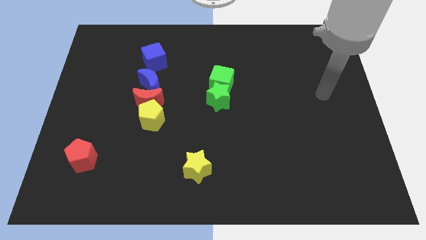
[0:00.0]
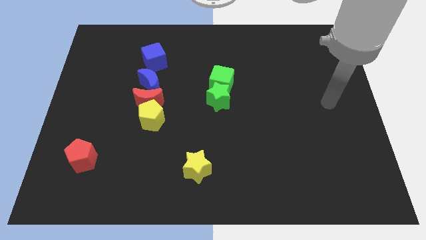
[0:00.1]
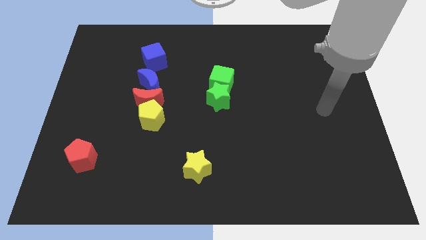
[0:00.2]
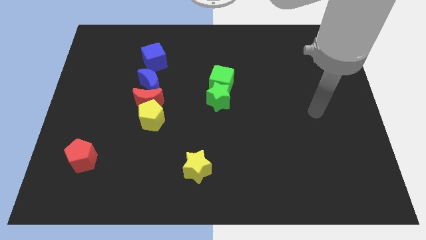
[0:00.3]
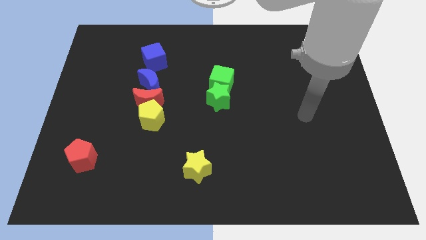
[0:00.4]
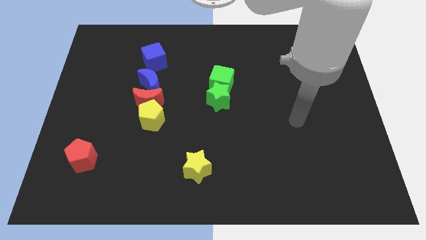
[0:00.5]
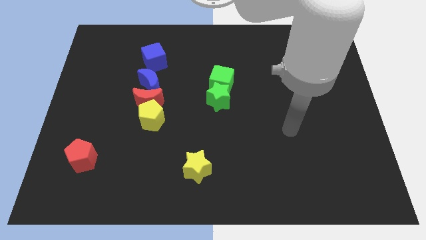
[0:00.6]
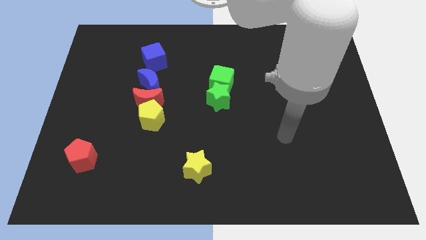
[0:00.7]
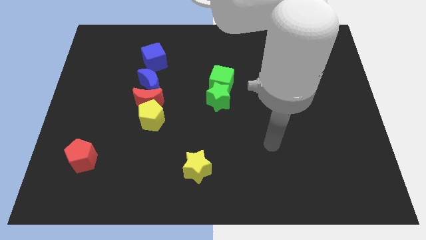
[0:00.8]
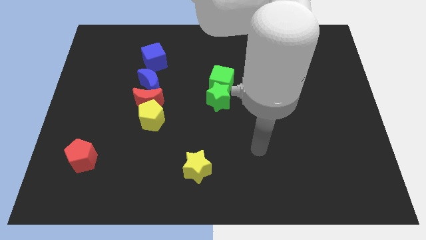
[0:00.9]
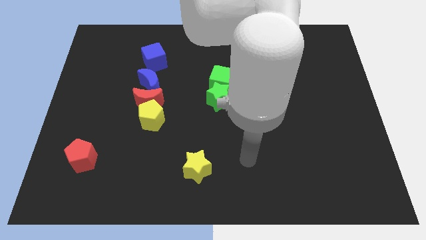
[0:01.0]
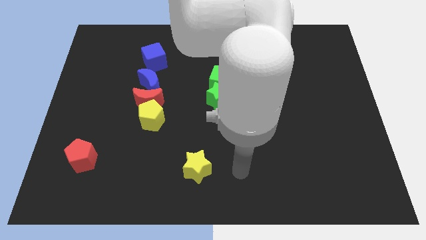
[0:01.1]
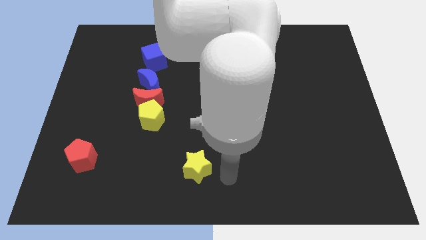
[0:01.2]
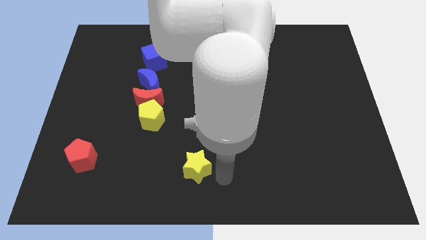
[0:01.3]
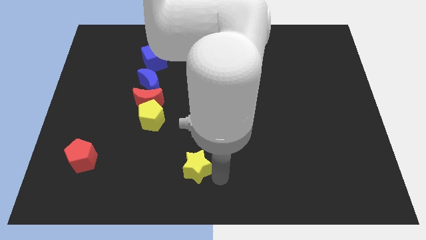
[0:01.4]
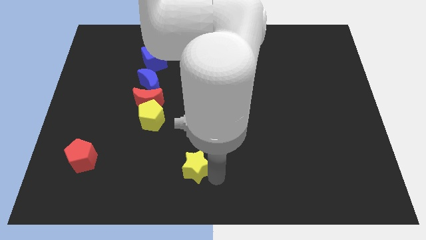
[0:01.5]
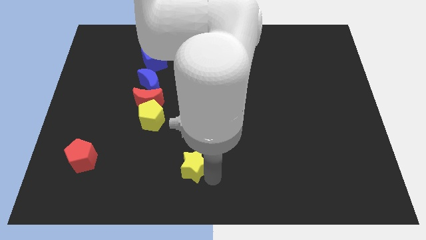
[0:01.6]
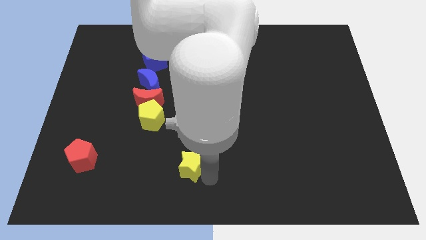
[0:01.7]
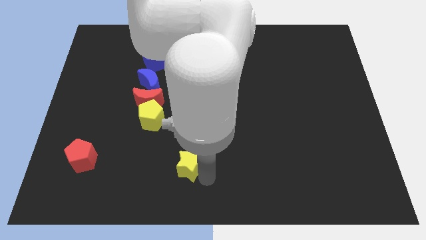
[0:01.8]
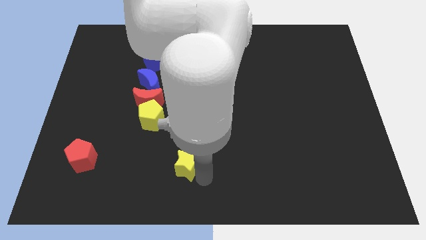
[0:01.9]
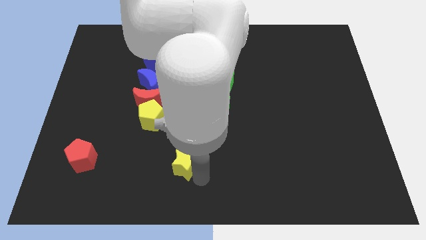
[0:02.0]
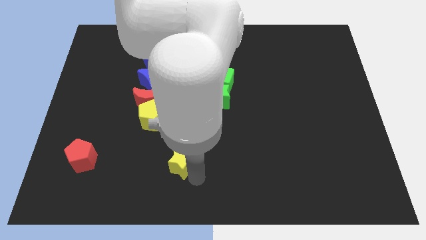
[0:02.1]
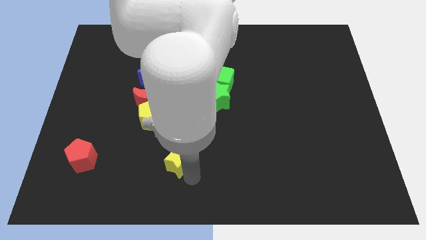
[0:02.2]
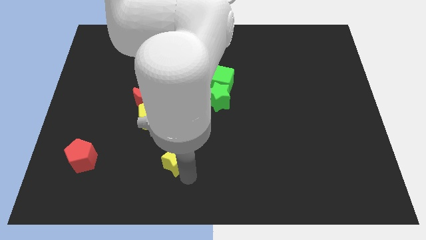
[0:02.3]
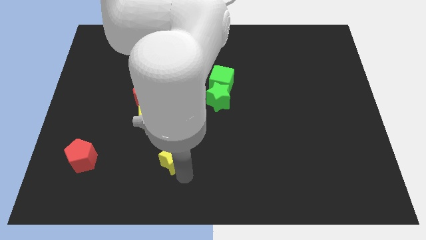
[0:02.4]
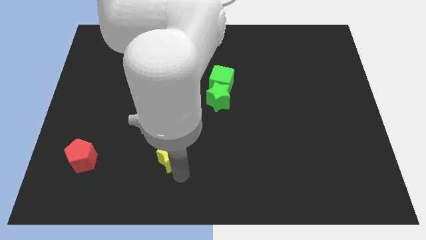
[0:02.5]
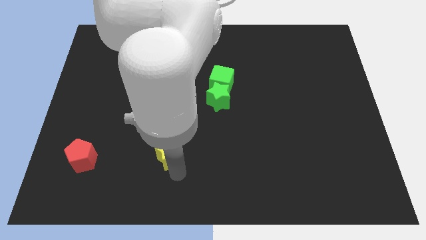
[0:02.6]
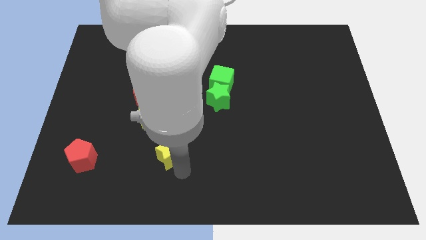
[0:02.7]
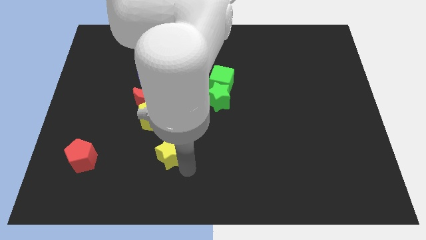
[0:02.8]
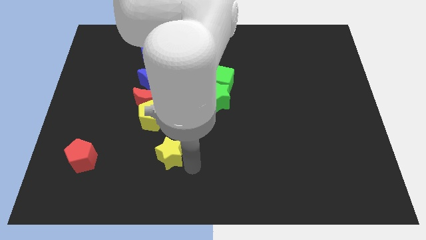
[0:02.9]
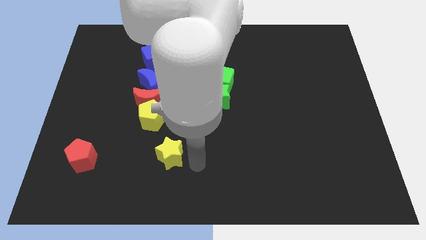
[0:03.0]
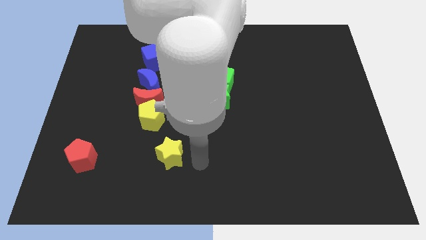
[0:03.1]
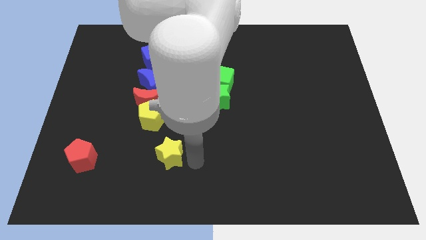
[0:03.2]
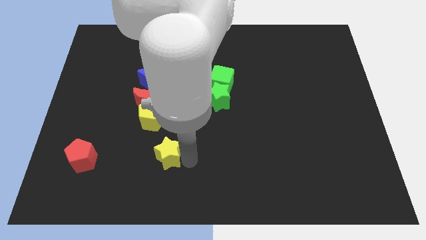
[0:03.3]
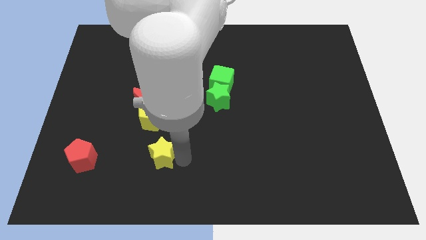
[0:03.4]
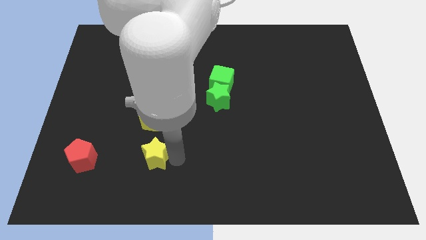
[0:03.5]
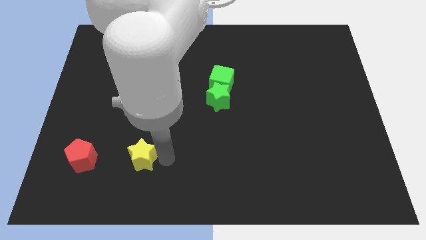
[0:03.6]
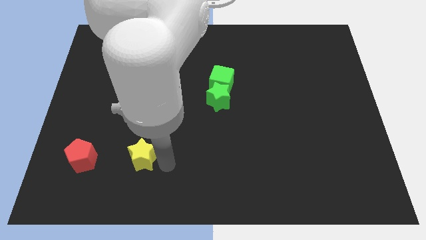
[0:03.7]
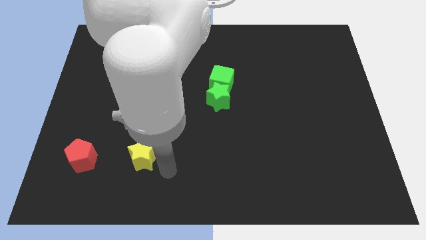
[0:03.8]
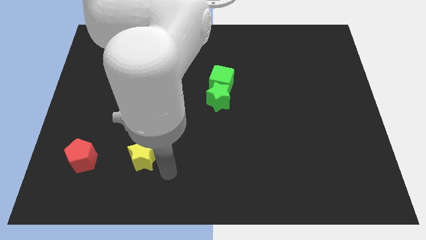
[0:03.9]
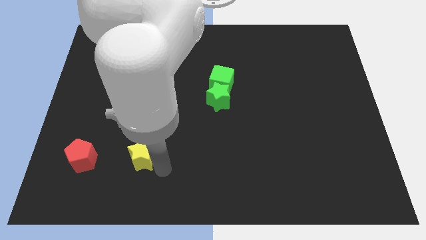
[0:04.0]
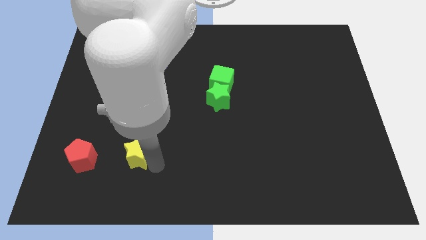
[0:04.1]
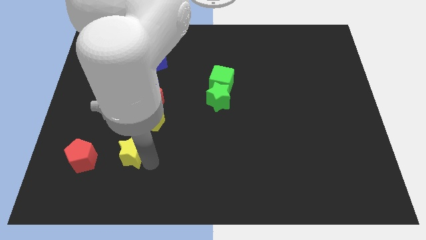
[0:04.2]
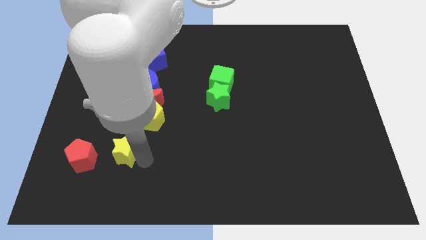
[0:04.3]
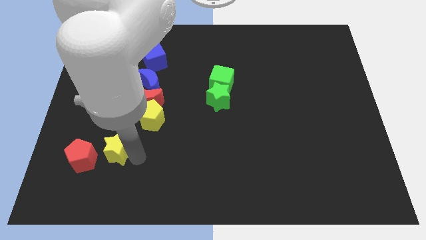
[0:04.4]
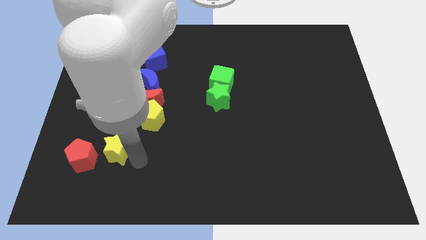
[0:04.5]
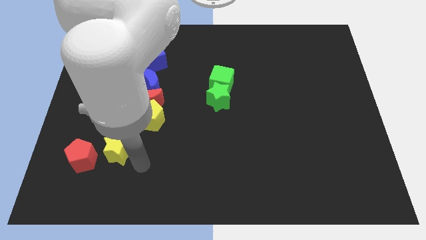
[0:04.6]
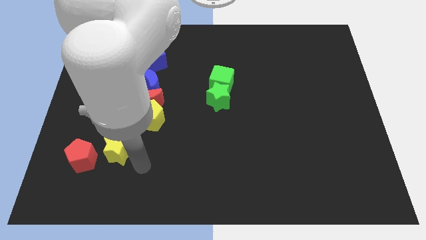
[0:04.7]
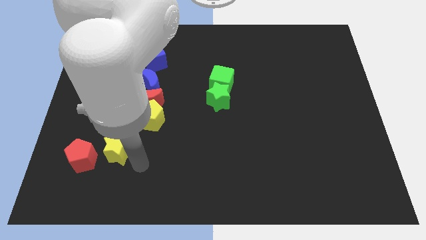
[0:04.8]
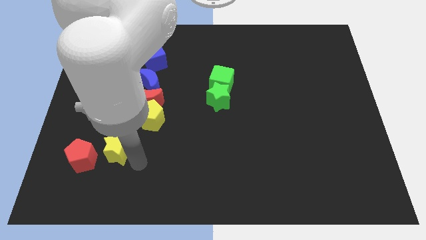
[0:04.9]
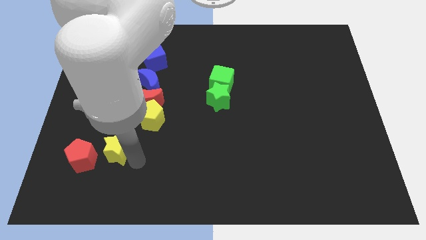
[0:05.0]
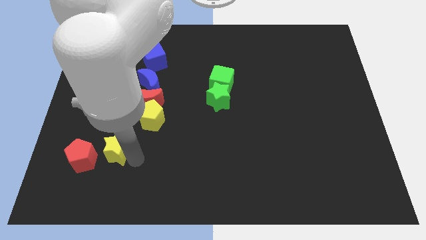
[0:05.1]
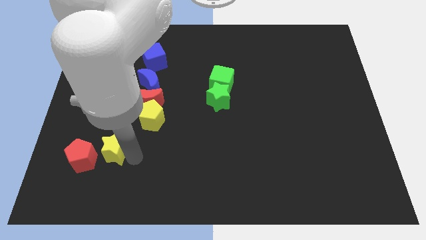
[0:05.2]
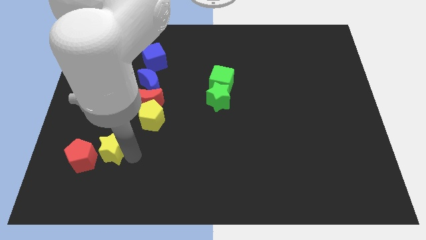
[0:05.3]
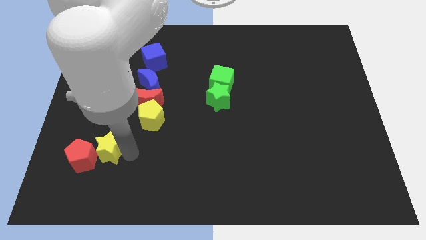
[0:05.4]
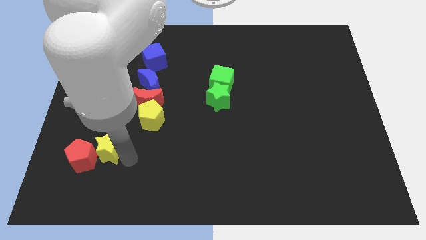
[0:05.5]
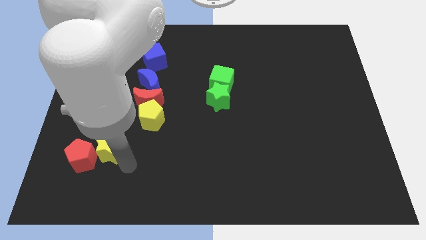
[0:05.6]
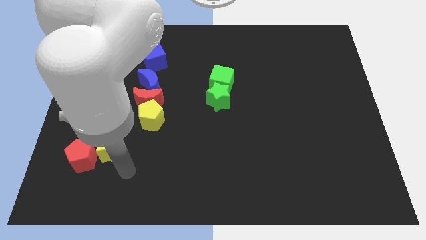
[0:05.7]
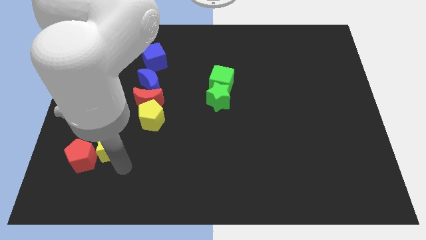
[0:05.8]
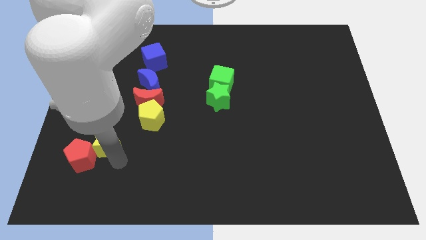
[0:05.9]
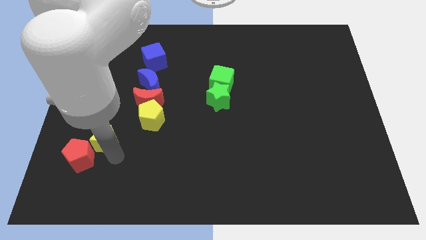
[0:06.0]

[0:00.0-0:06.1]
put the yellow star to the top of the red pentagon

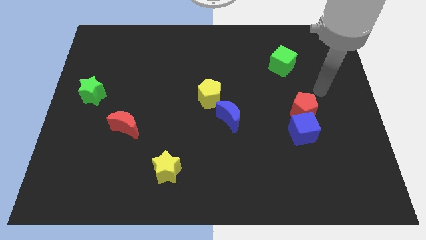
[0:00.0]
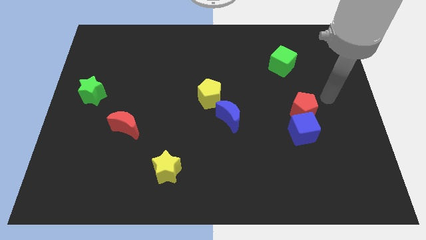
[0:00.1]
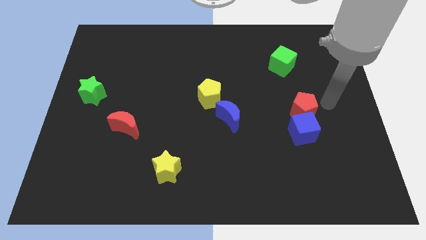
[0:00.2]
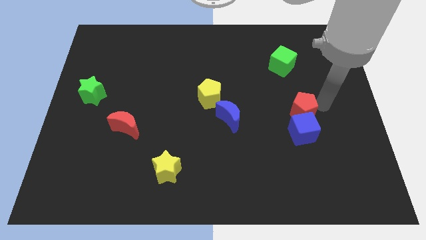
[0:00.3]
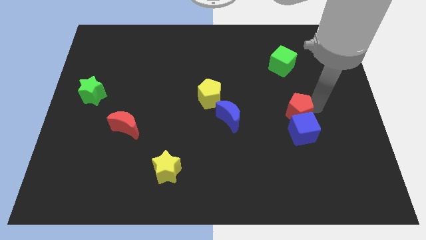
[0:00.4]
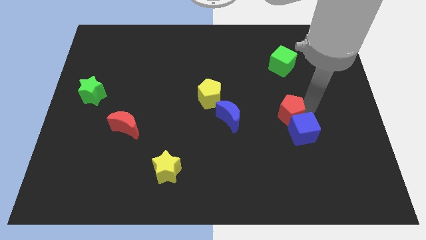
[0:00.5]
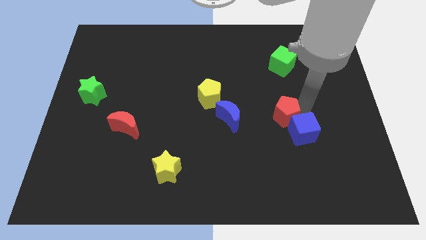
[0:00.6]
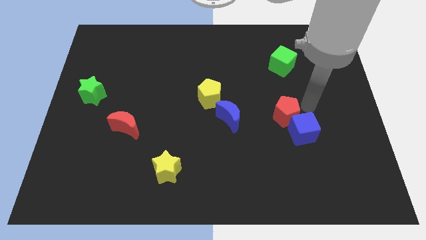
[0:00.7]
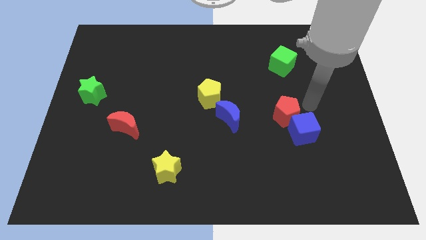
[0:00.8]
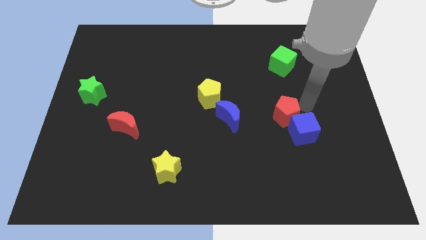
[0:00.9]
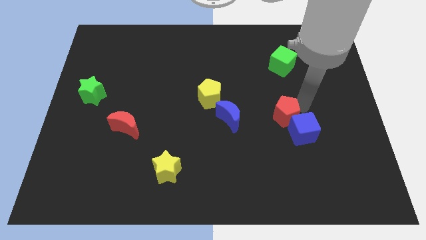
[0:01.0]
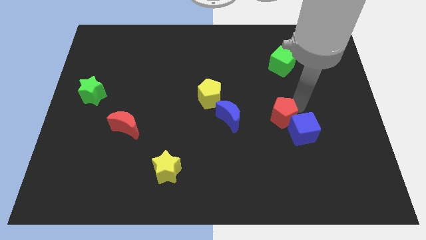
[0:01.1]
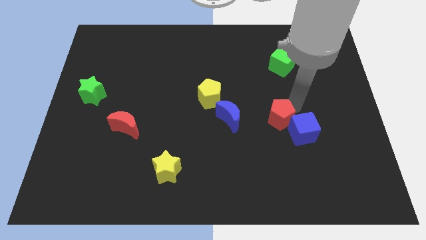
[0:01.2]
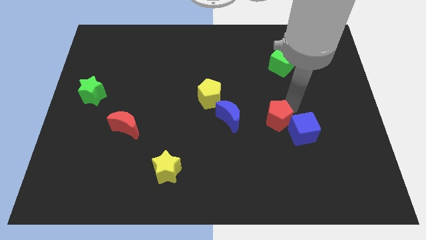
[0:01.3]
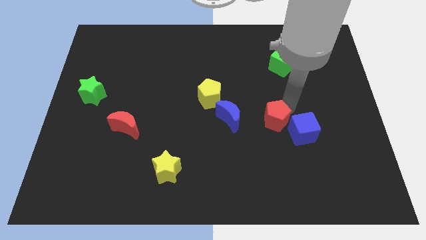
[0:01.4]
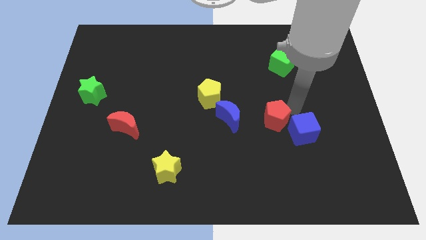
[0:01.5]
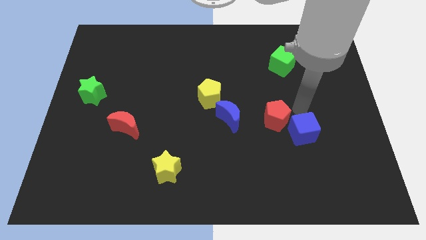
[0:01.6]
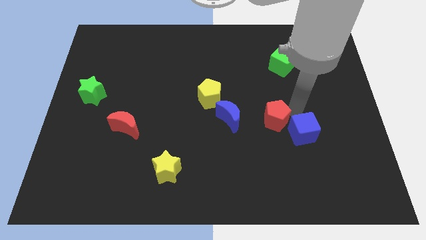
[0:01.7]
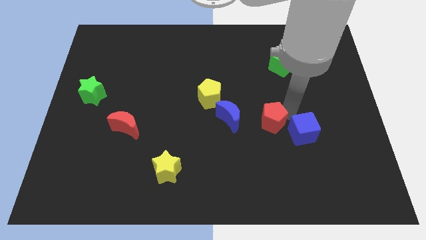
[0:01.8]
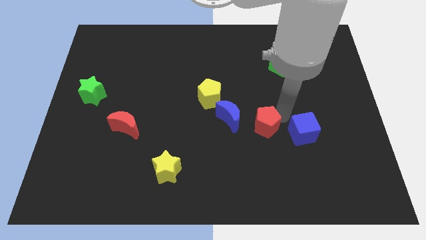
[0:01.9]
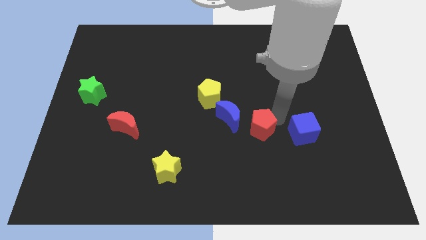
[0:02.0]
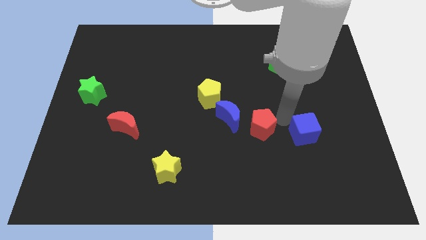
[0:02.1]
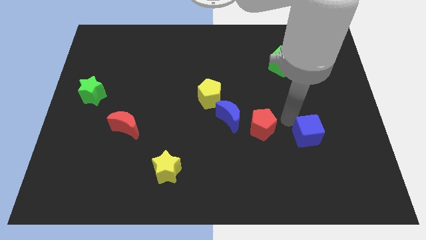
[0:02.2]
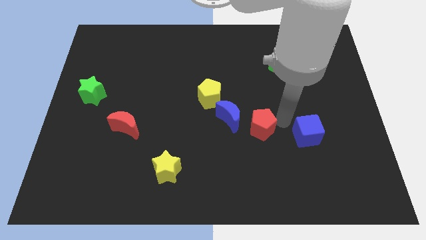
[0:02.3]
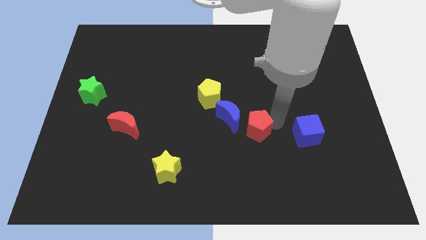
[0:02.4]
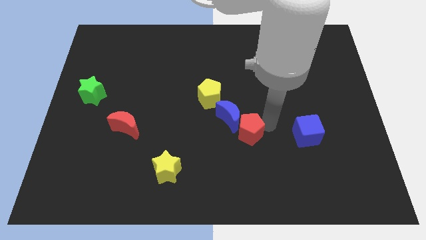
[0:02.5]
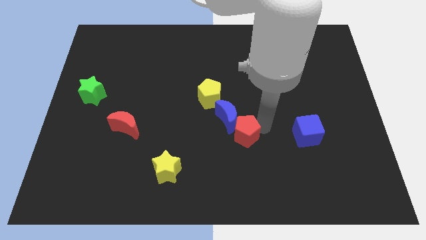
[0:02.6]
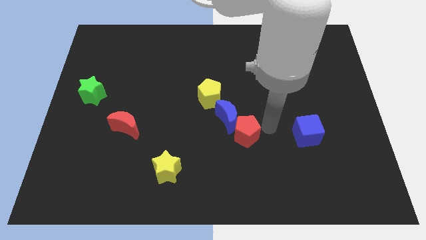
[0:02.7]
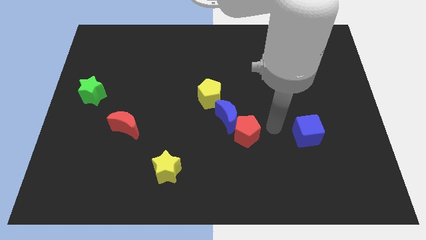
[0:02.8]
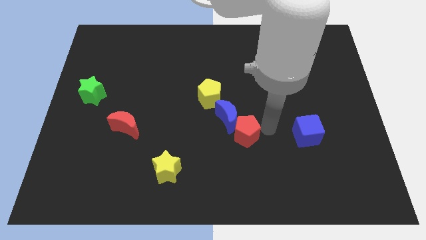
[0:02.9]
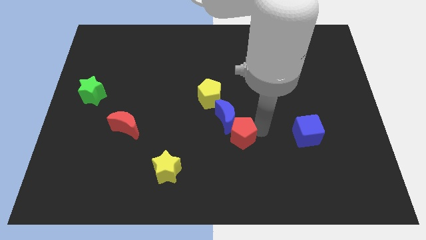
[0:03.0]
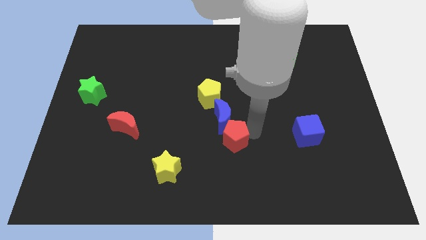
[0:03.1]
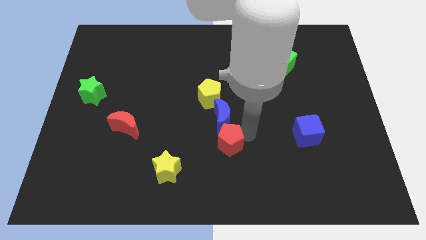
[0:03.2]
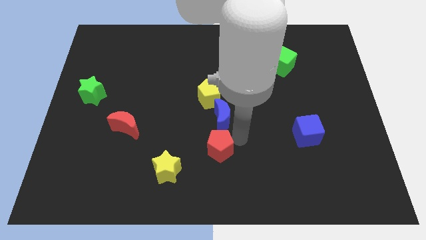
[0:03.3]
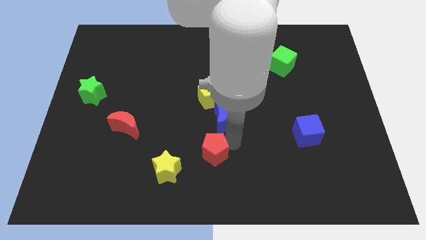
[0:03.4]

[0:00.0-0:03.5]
push the red pentagon to the top right of the yellow star
